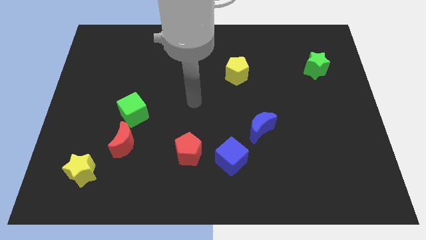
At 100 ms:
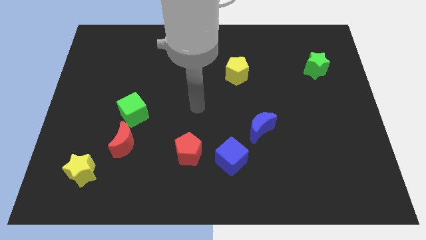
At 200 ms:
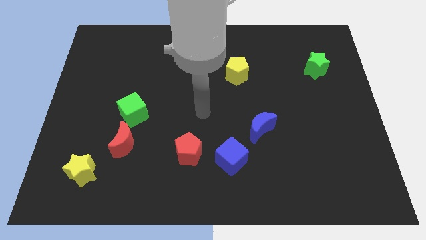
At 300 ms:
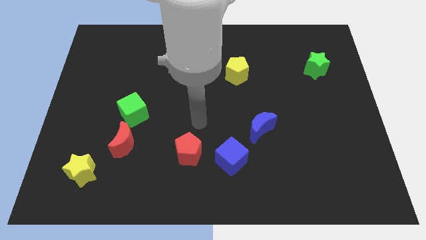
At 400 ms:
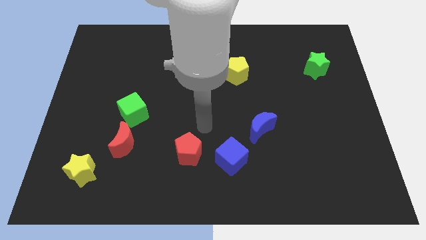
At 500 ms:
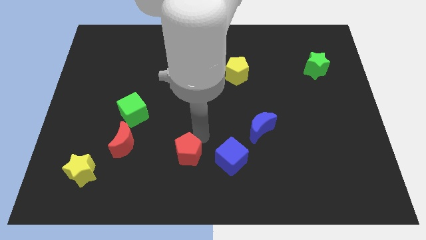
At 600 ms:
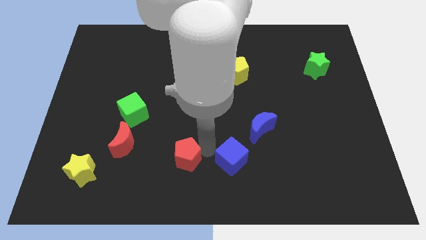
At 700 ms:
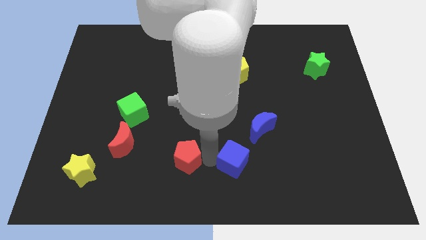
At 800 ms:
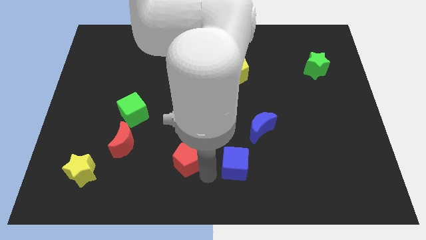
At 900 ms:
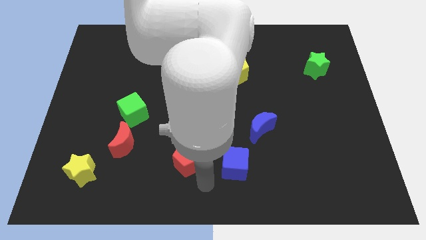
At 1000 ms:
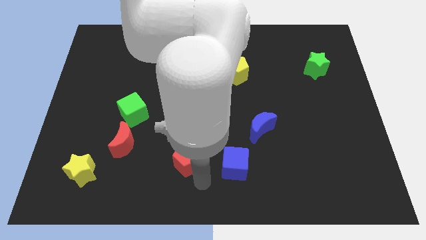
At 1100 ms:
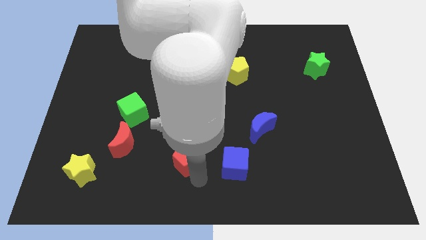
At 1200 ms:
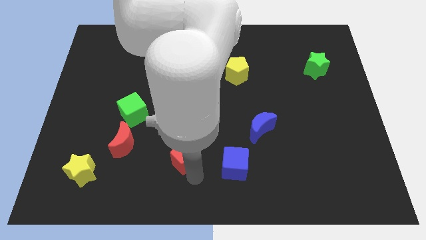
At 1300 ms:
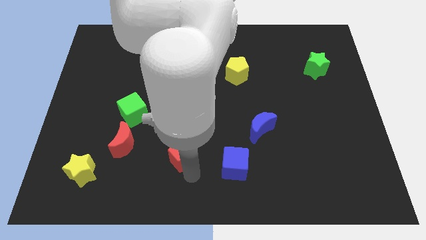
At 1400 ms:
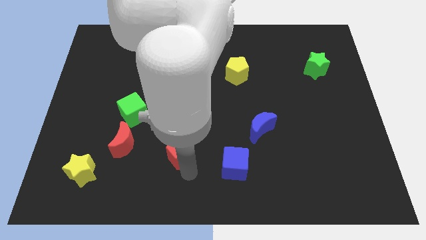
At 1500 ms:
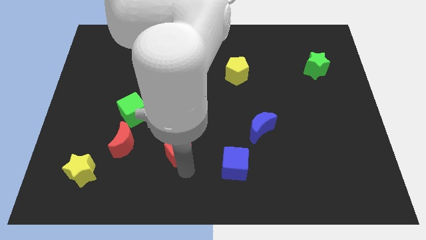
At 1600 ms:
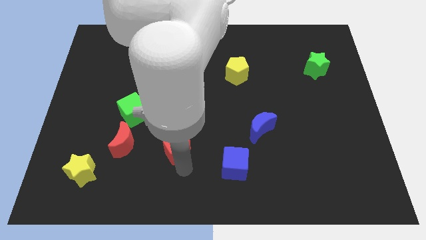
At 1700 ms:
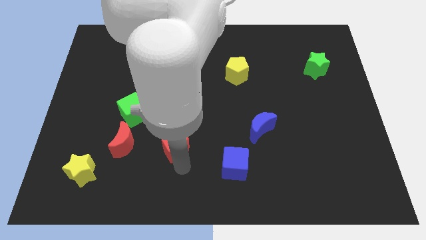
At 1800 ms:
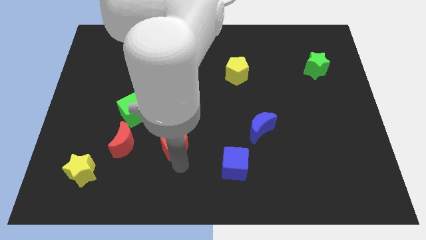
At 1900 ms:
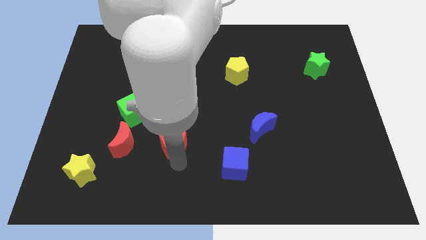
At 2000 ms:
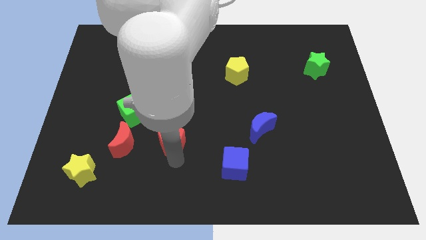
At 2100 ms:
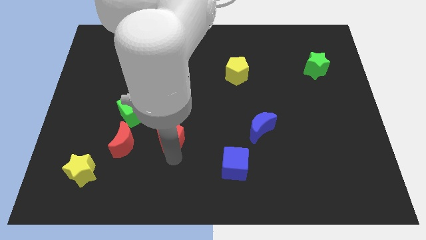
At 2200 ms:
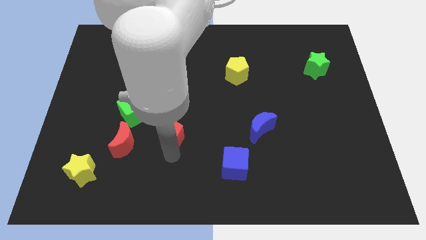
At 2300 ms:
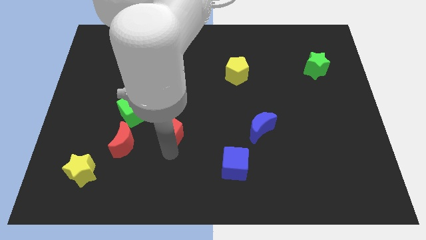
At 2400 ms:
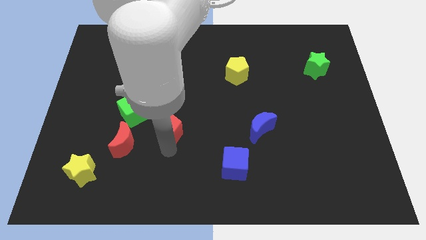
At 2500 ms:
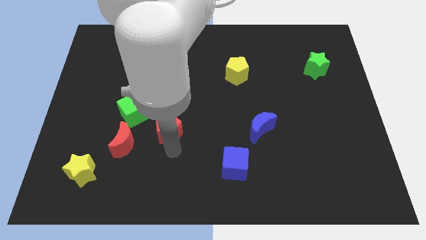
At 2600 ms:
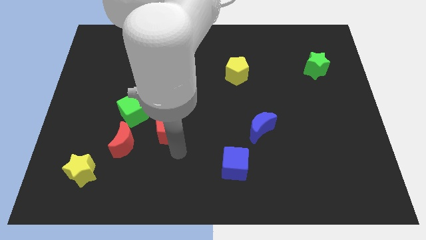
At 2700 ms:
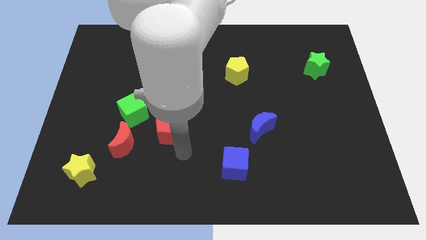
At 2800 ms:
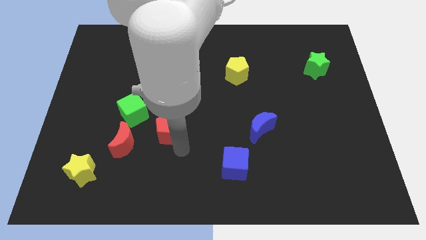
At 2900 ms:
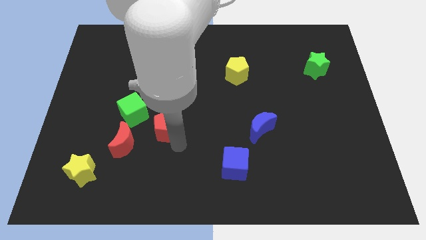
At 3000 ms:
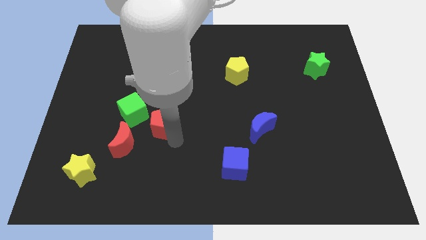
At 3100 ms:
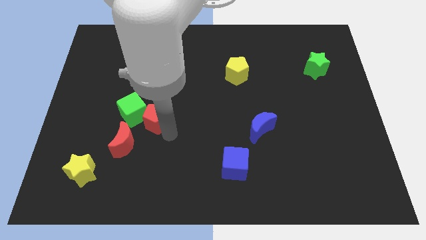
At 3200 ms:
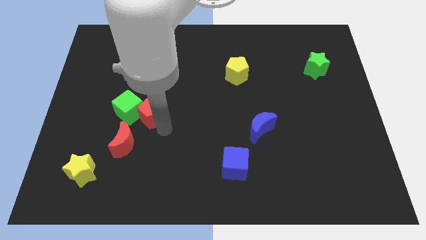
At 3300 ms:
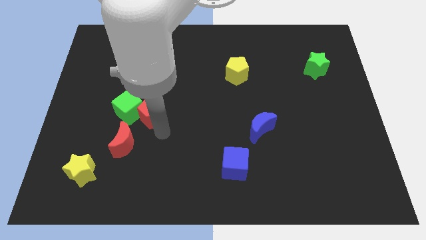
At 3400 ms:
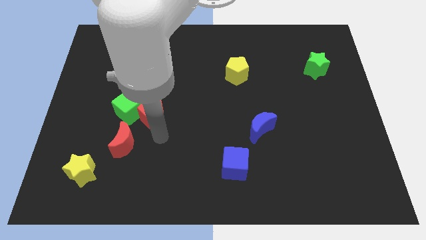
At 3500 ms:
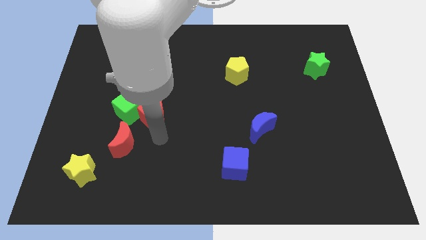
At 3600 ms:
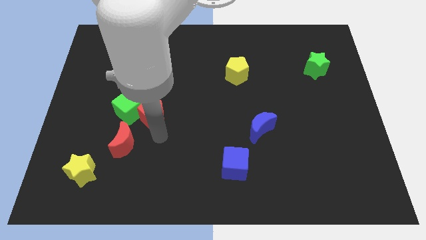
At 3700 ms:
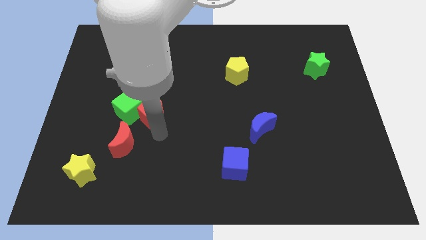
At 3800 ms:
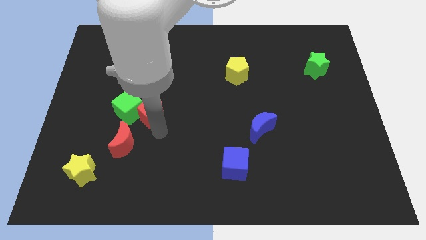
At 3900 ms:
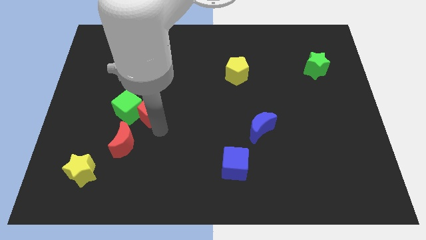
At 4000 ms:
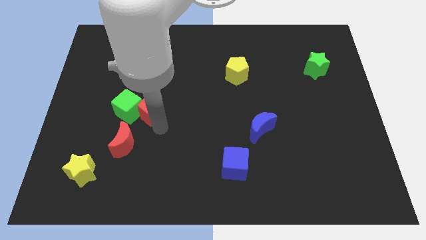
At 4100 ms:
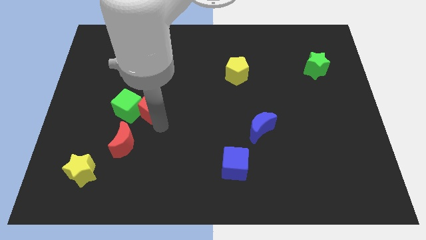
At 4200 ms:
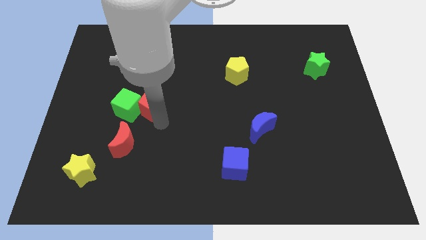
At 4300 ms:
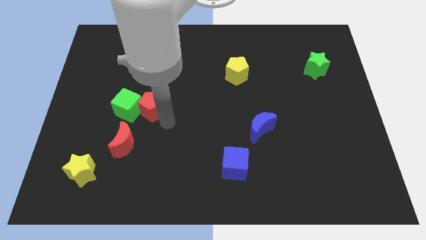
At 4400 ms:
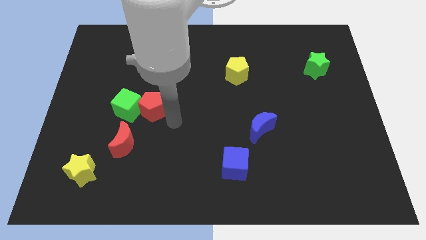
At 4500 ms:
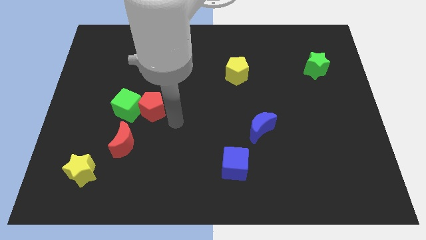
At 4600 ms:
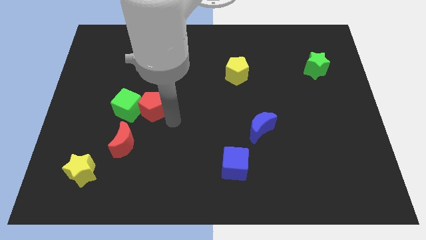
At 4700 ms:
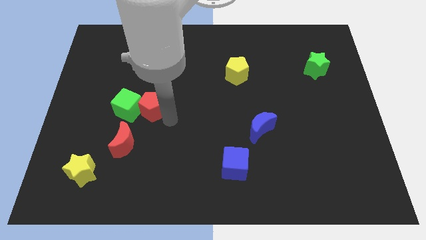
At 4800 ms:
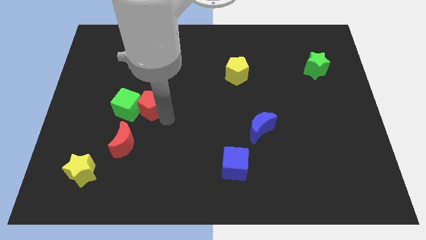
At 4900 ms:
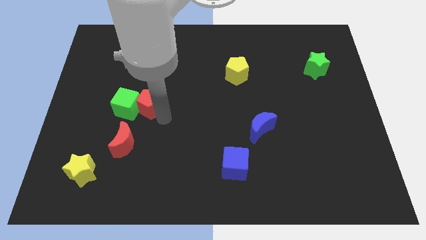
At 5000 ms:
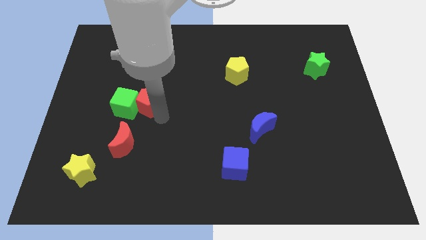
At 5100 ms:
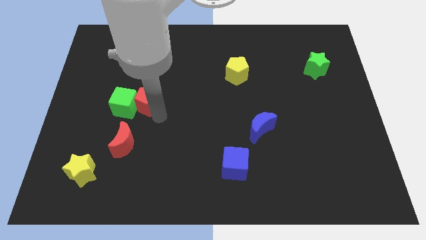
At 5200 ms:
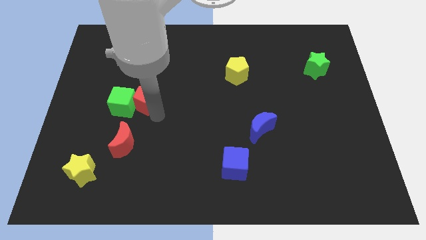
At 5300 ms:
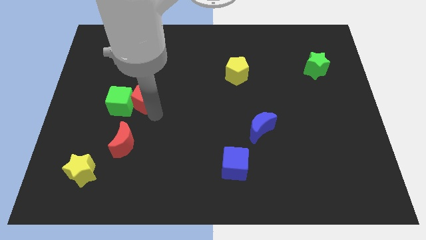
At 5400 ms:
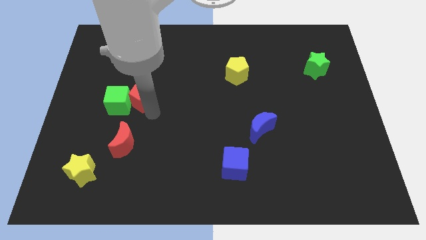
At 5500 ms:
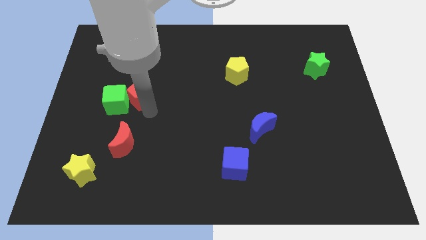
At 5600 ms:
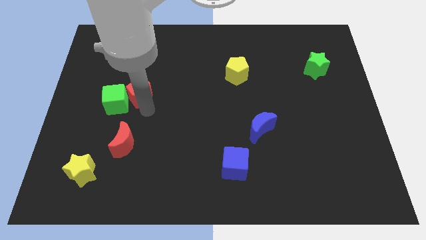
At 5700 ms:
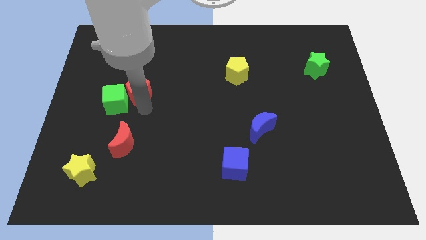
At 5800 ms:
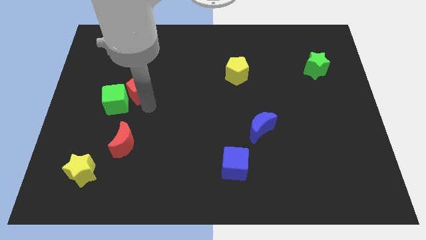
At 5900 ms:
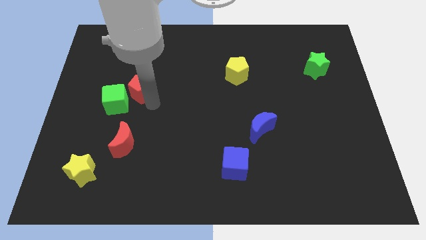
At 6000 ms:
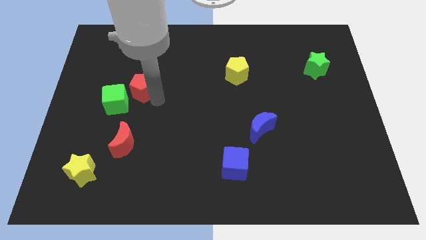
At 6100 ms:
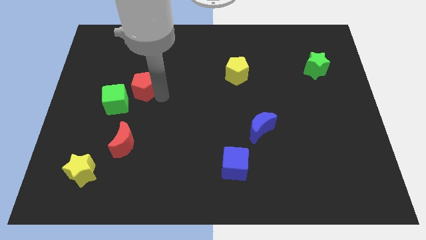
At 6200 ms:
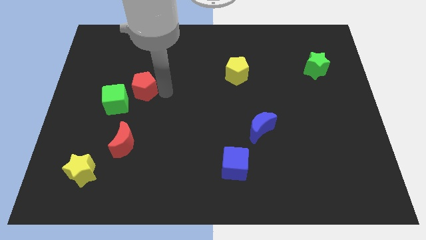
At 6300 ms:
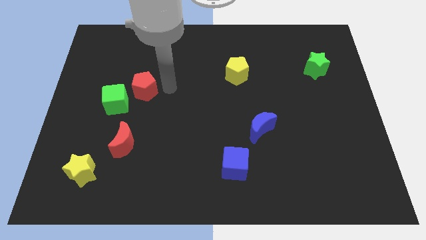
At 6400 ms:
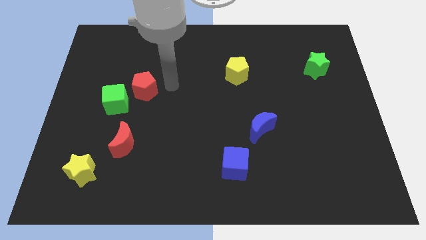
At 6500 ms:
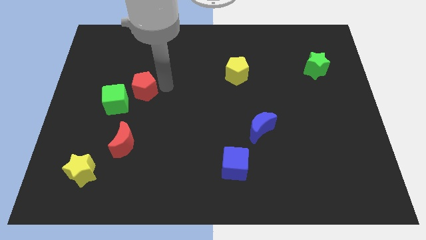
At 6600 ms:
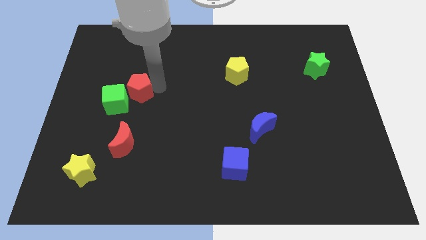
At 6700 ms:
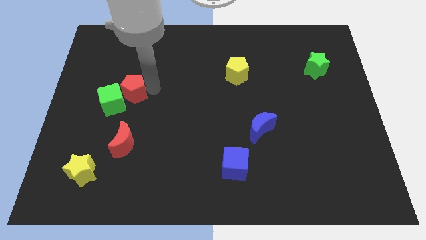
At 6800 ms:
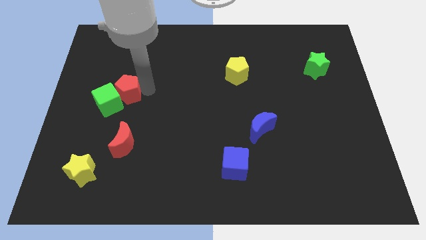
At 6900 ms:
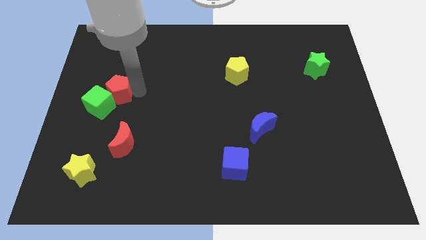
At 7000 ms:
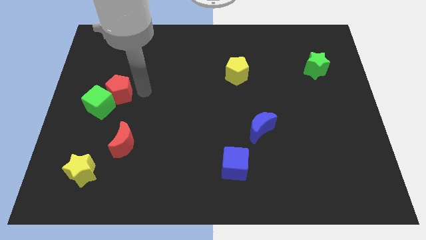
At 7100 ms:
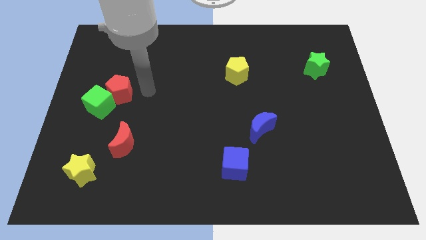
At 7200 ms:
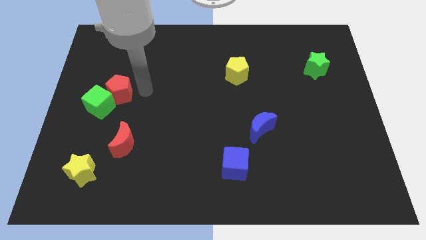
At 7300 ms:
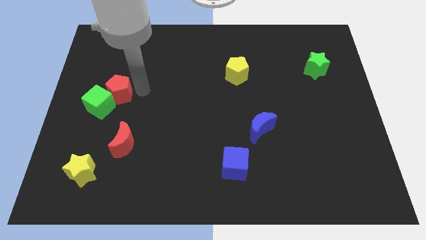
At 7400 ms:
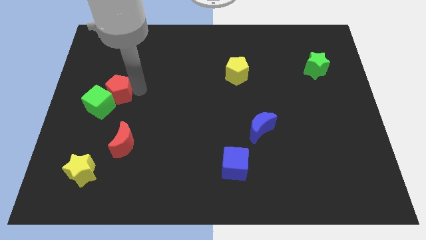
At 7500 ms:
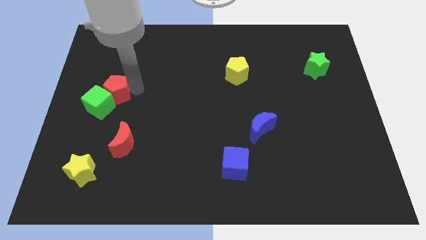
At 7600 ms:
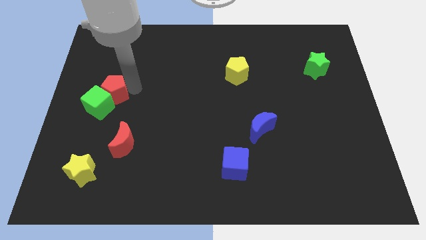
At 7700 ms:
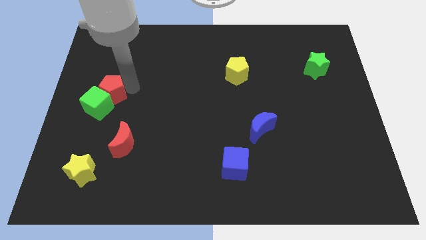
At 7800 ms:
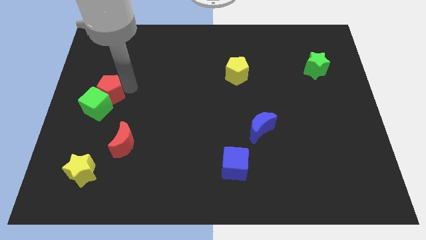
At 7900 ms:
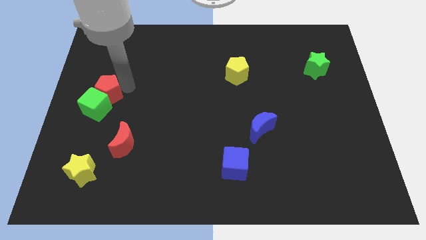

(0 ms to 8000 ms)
put the red pentagon to the center left
